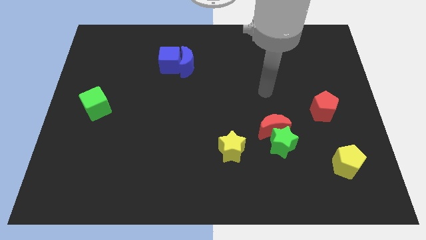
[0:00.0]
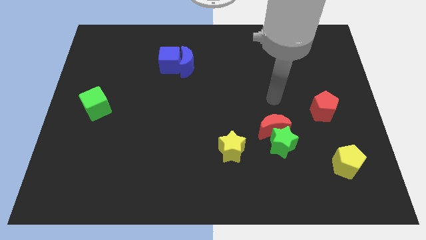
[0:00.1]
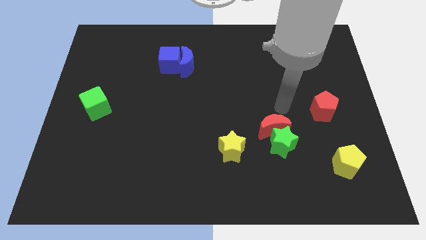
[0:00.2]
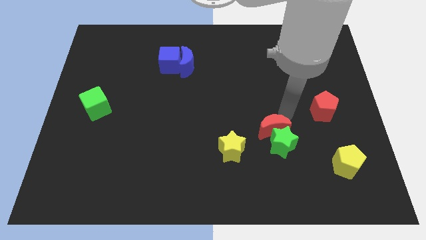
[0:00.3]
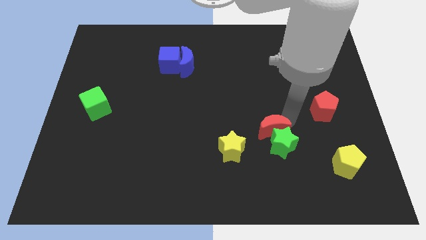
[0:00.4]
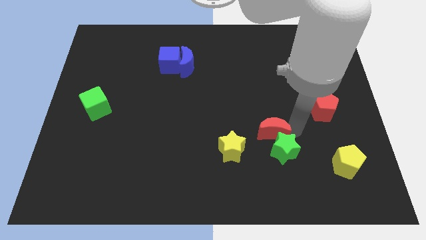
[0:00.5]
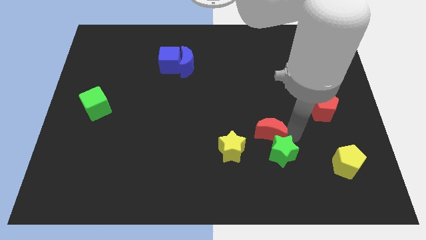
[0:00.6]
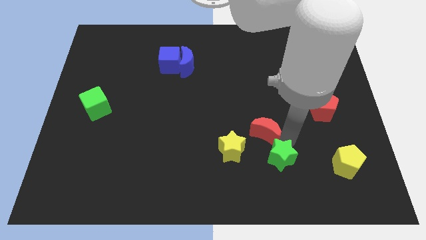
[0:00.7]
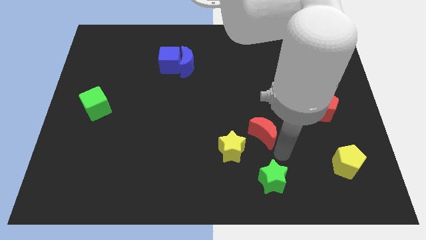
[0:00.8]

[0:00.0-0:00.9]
move the red moon away from the green star

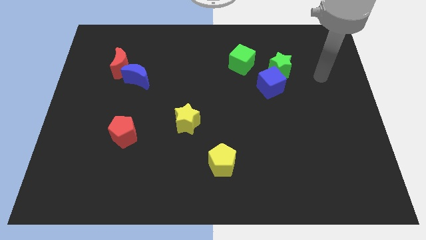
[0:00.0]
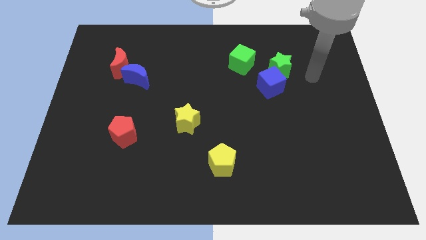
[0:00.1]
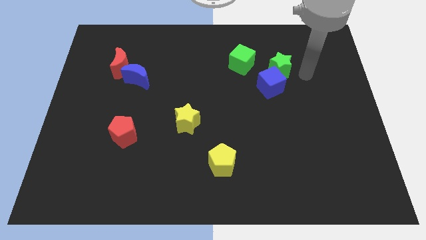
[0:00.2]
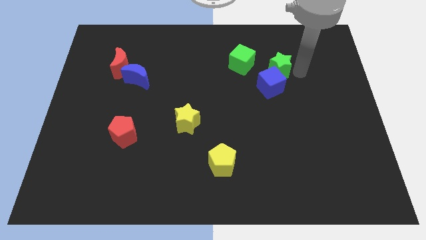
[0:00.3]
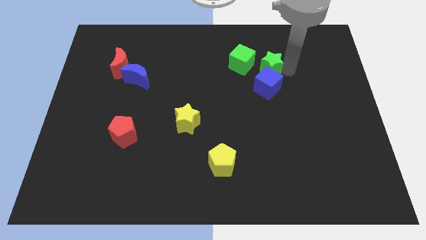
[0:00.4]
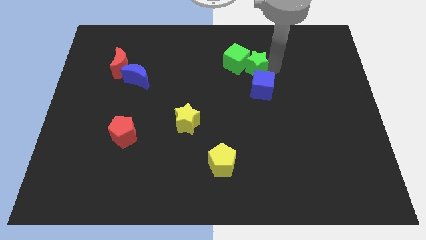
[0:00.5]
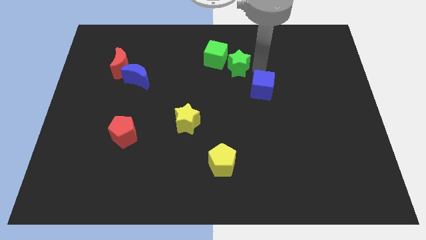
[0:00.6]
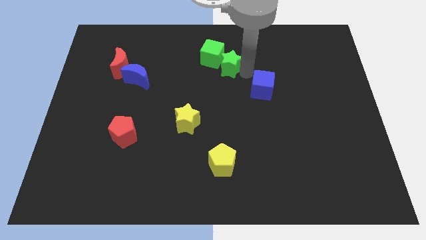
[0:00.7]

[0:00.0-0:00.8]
move the blue cube away from the green star

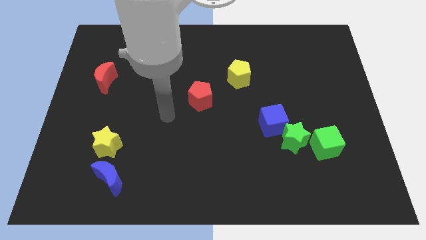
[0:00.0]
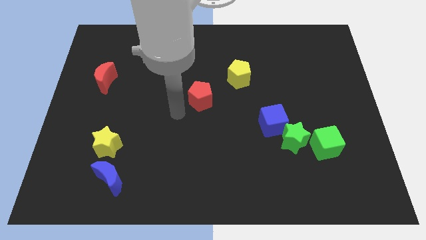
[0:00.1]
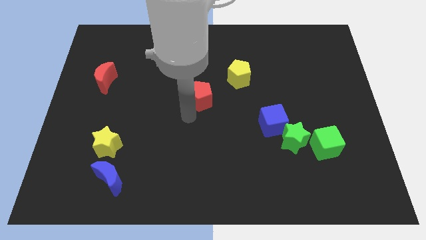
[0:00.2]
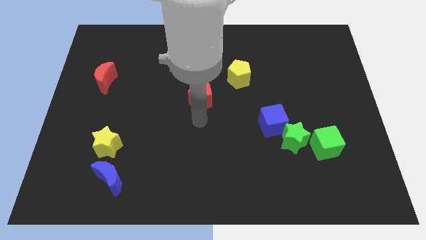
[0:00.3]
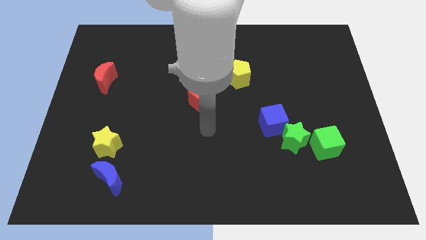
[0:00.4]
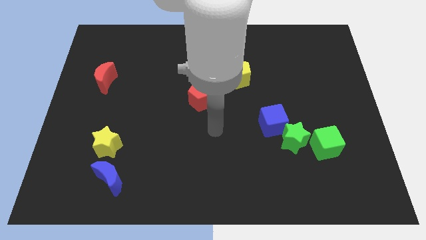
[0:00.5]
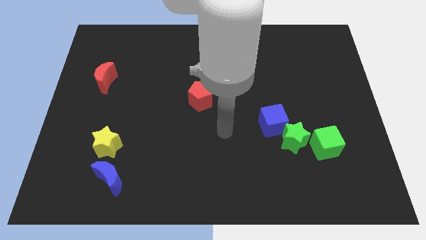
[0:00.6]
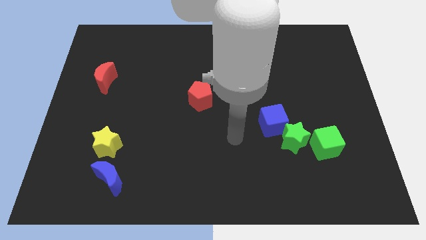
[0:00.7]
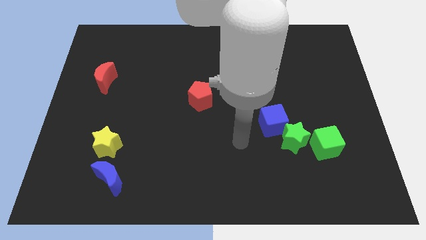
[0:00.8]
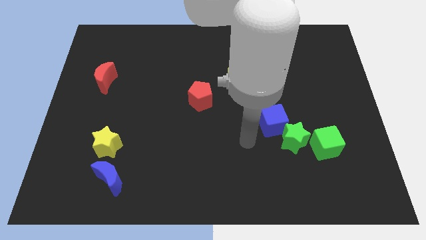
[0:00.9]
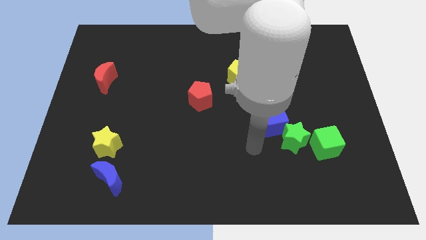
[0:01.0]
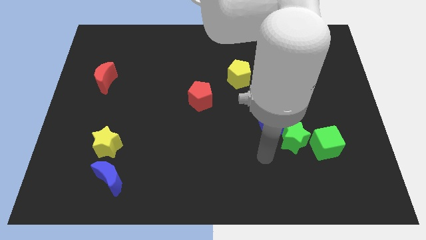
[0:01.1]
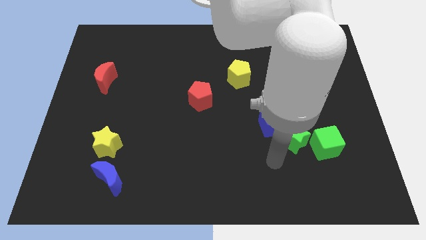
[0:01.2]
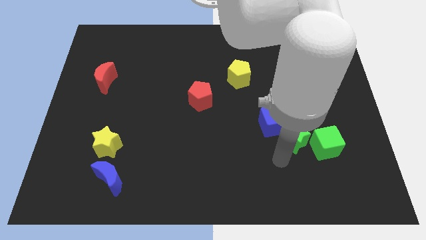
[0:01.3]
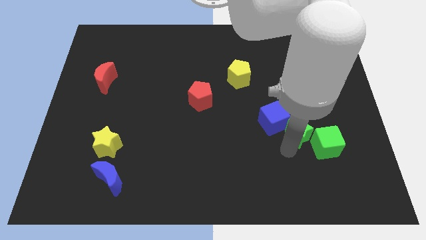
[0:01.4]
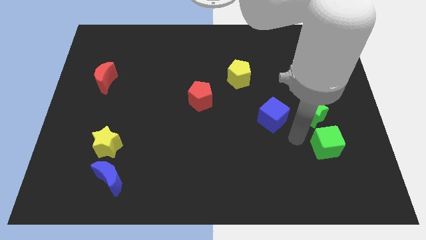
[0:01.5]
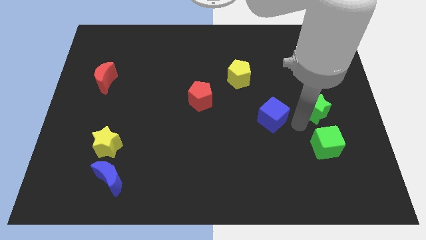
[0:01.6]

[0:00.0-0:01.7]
pull the blue cube apart from the green star

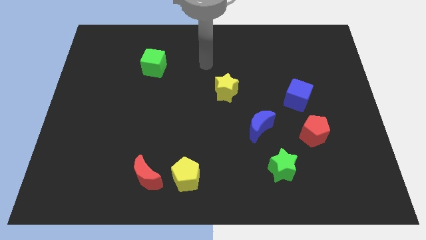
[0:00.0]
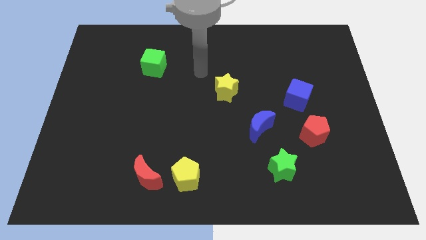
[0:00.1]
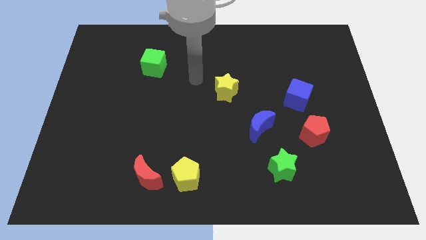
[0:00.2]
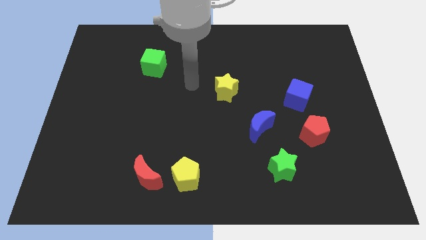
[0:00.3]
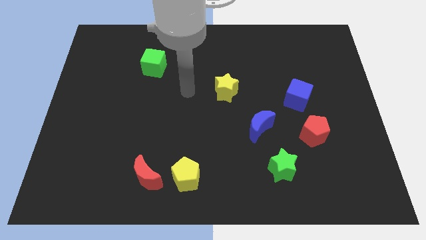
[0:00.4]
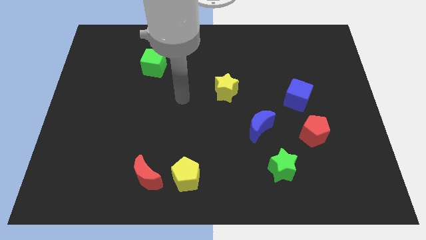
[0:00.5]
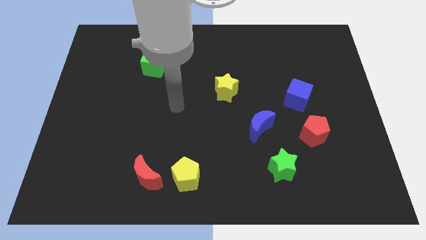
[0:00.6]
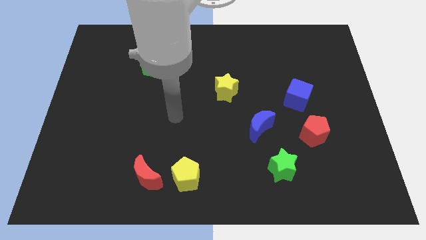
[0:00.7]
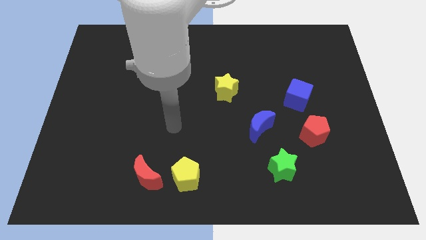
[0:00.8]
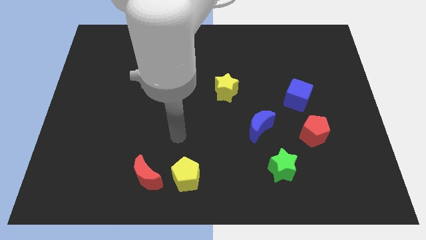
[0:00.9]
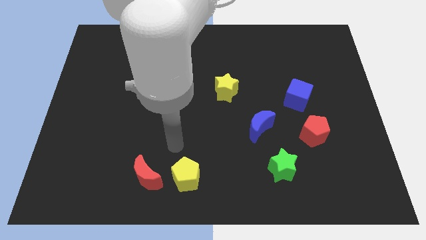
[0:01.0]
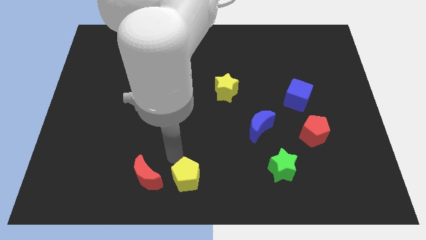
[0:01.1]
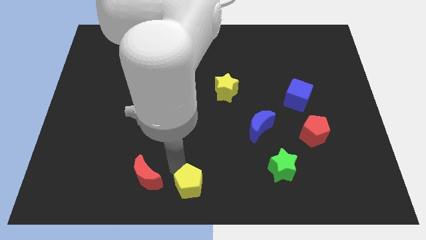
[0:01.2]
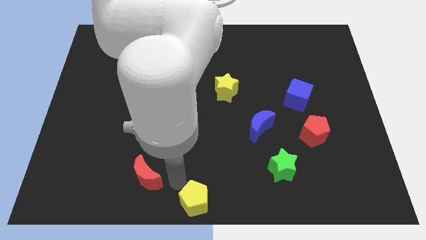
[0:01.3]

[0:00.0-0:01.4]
separate the red moon from the yellow pentagon

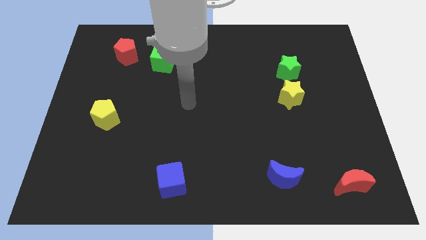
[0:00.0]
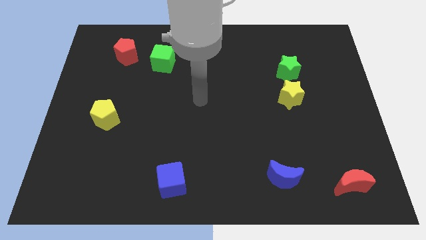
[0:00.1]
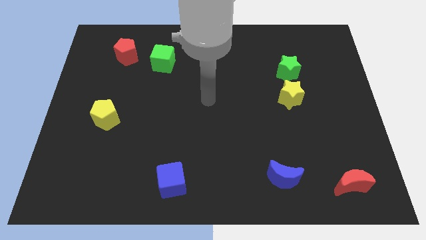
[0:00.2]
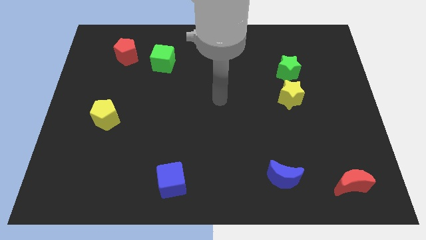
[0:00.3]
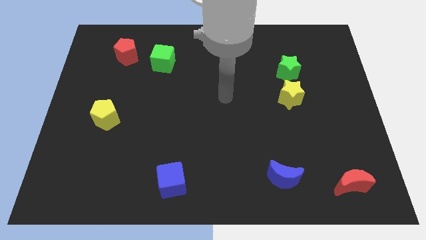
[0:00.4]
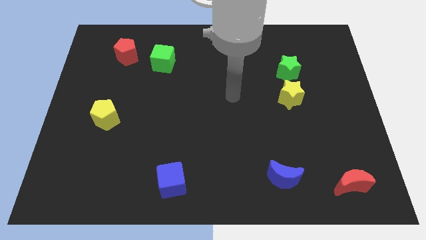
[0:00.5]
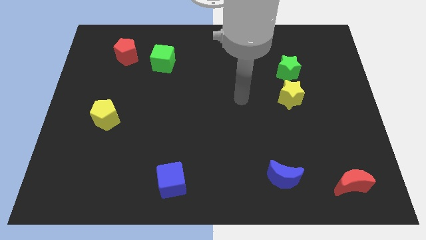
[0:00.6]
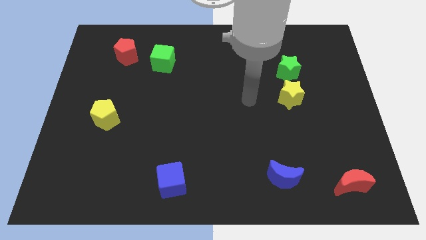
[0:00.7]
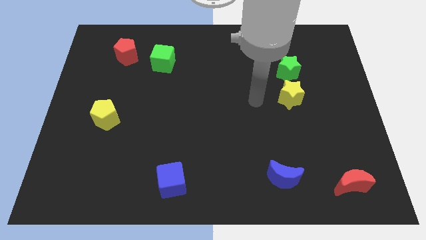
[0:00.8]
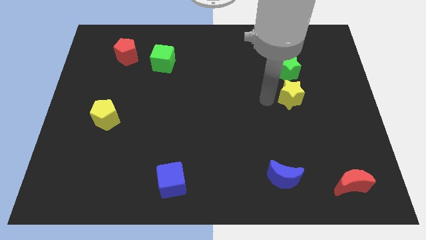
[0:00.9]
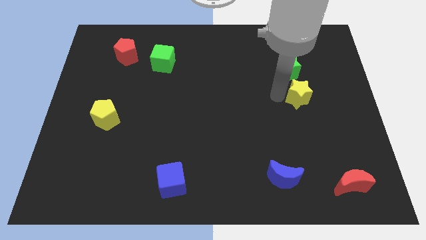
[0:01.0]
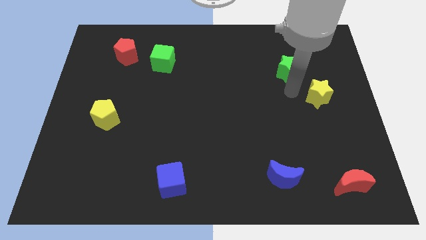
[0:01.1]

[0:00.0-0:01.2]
pull the green star apart from the yellow star

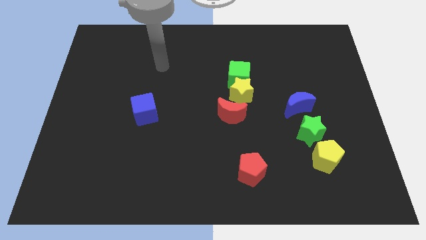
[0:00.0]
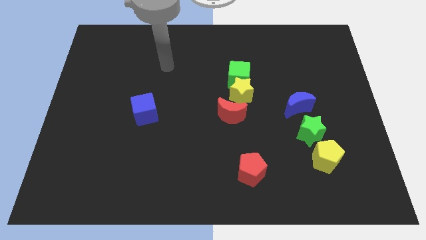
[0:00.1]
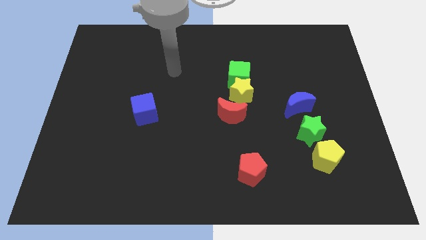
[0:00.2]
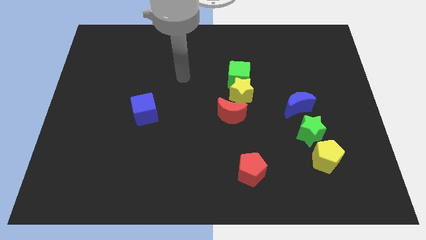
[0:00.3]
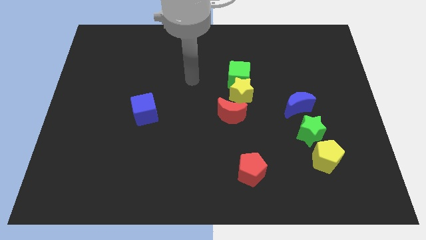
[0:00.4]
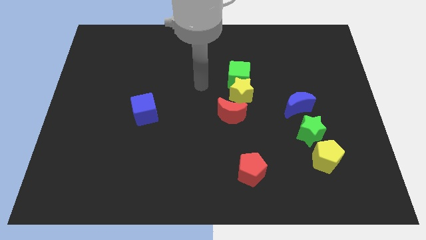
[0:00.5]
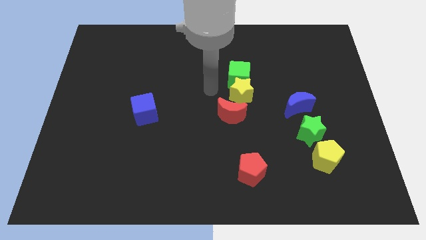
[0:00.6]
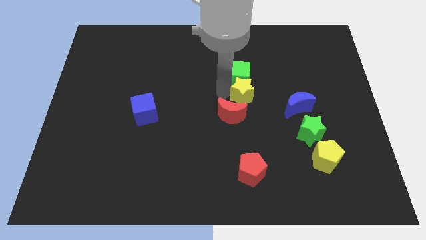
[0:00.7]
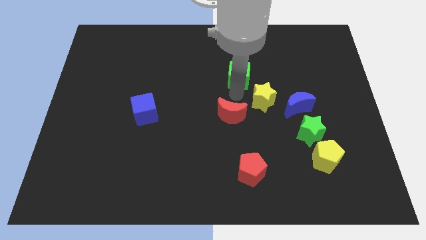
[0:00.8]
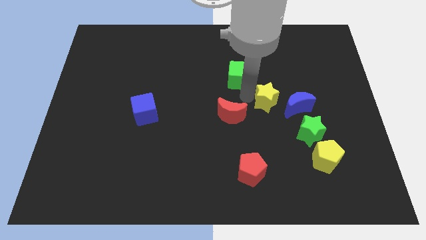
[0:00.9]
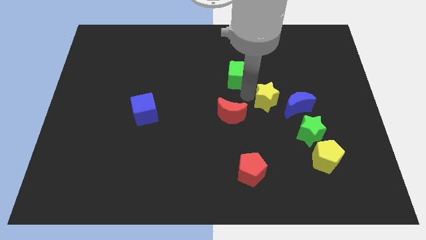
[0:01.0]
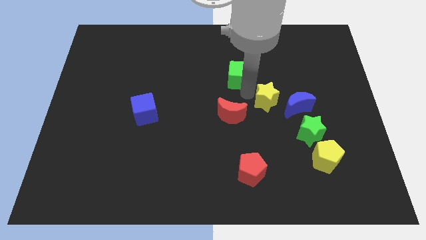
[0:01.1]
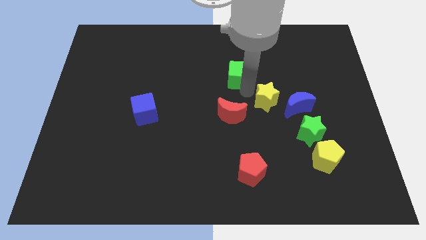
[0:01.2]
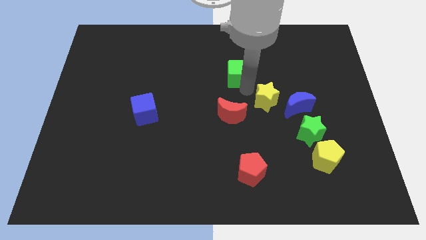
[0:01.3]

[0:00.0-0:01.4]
separate the green cube from the yellow star

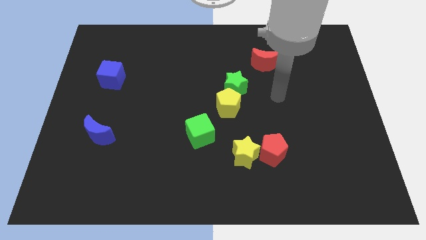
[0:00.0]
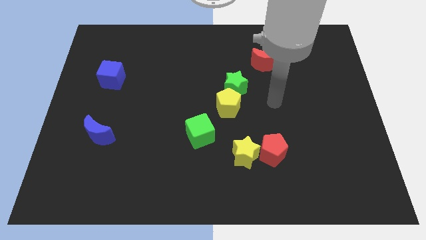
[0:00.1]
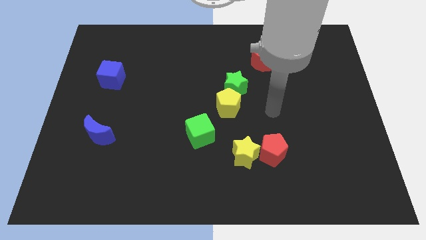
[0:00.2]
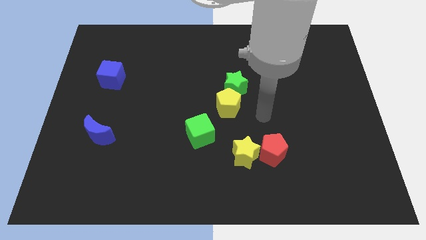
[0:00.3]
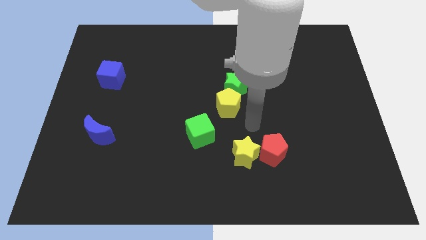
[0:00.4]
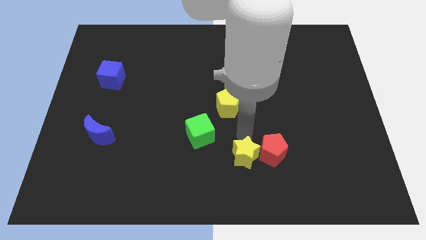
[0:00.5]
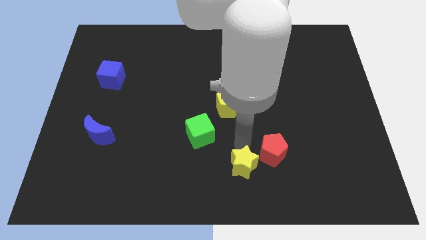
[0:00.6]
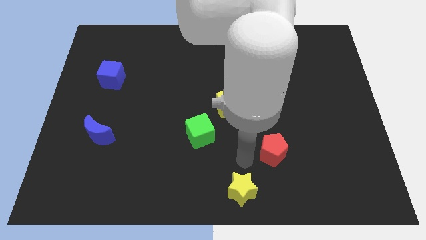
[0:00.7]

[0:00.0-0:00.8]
separate the red pentagon from the yellow star

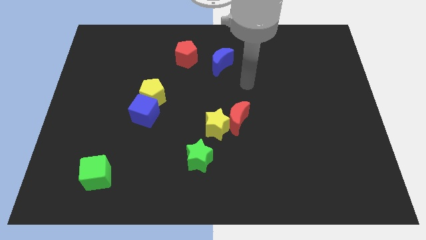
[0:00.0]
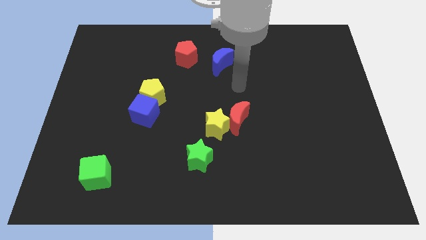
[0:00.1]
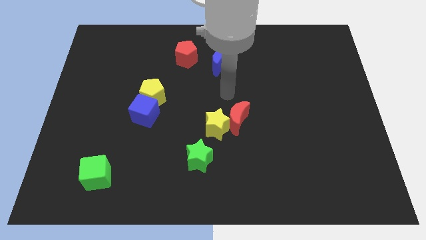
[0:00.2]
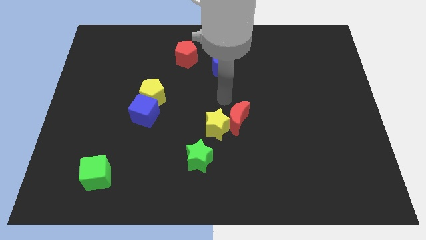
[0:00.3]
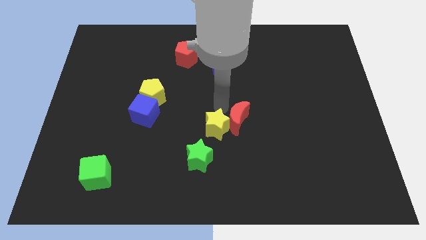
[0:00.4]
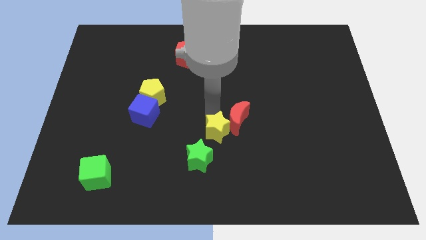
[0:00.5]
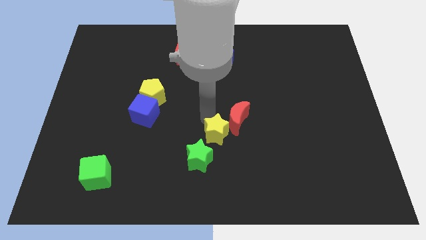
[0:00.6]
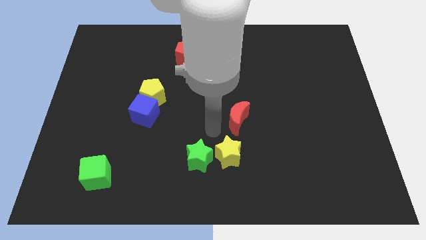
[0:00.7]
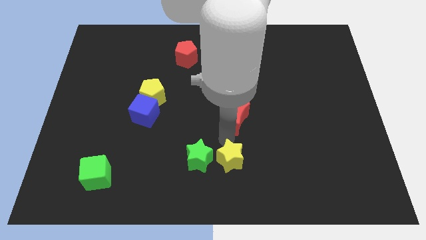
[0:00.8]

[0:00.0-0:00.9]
separate the red moon from the yellow star

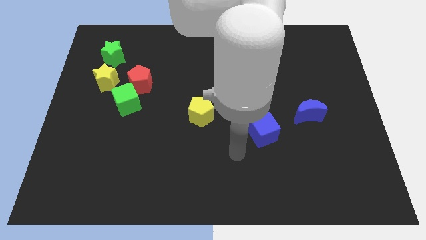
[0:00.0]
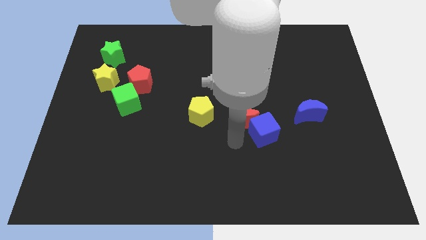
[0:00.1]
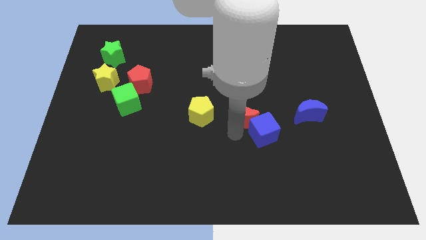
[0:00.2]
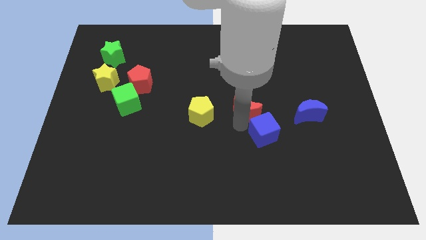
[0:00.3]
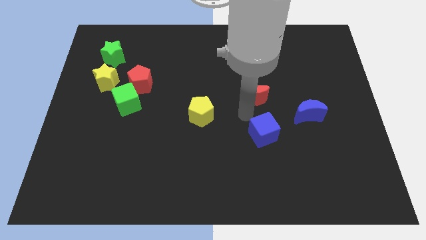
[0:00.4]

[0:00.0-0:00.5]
pull the blue cube apart from the red moon
